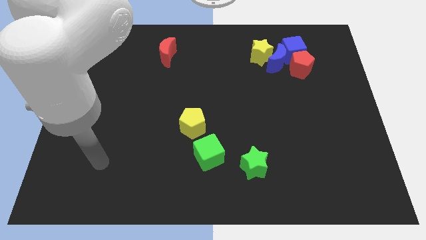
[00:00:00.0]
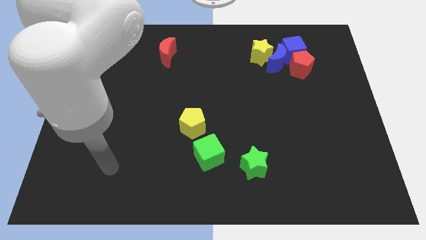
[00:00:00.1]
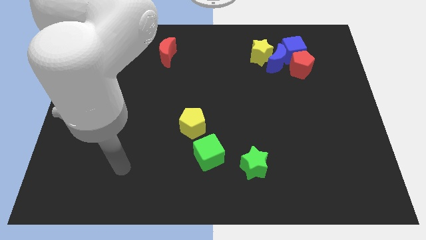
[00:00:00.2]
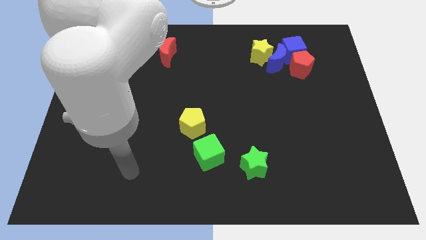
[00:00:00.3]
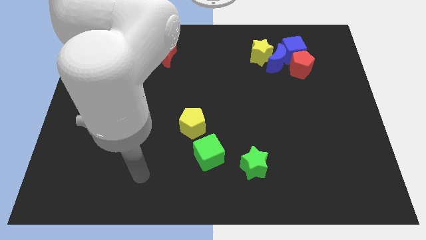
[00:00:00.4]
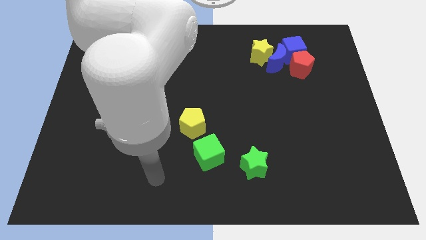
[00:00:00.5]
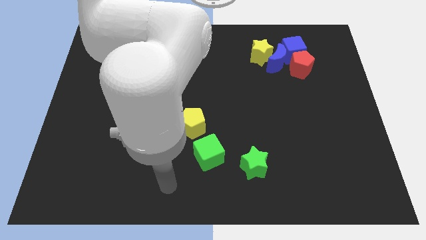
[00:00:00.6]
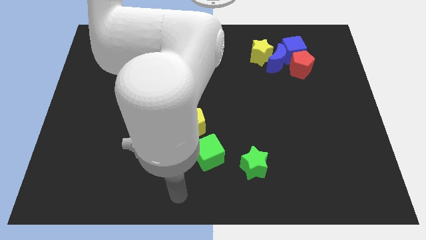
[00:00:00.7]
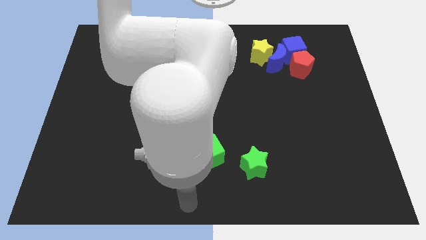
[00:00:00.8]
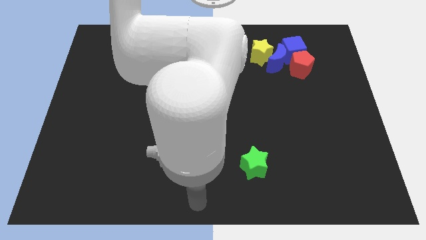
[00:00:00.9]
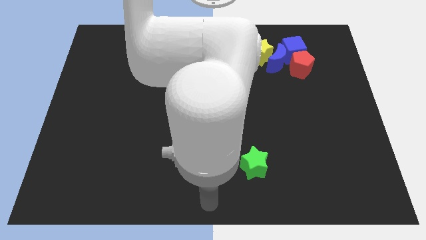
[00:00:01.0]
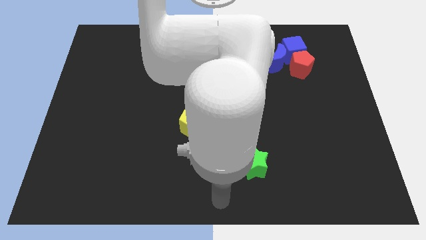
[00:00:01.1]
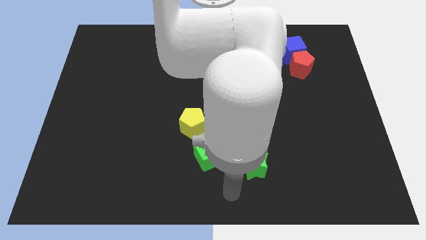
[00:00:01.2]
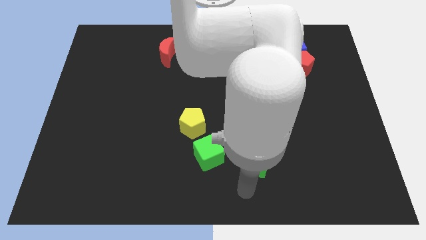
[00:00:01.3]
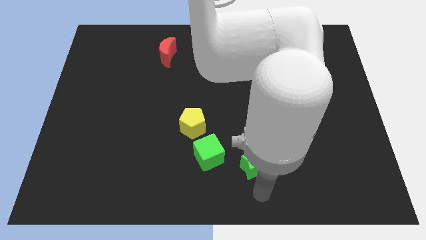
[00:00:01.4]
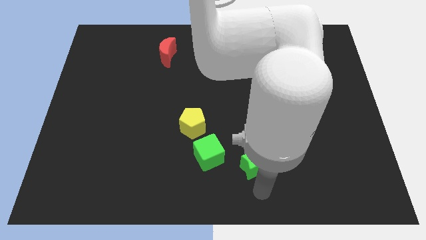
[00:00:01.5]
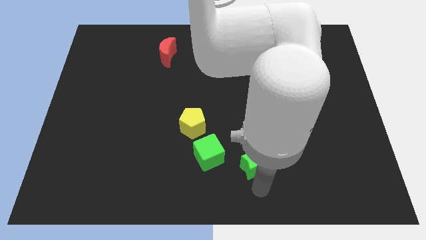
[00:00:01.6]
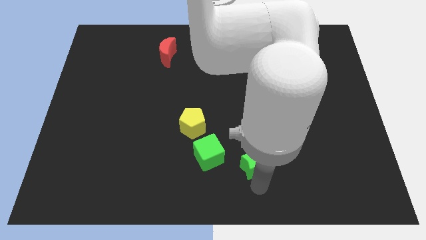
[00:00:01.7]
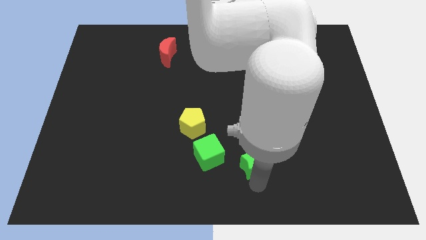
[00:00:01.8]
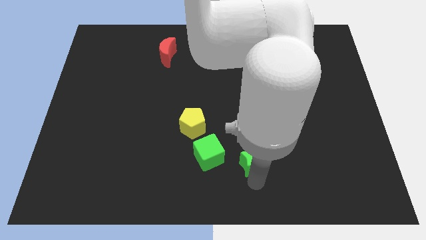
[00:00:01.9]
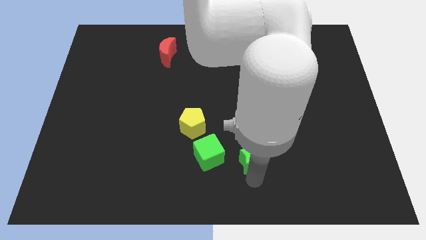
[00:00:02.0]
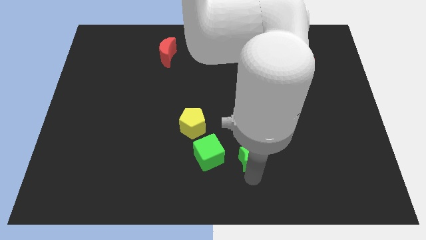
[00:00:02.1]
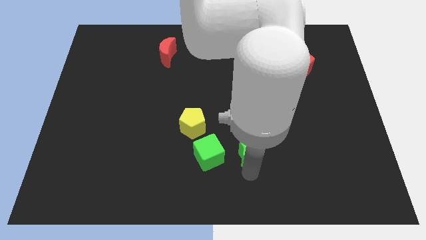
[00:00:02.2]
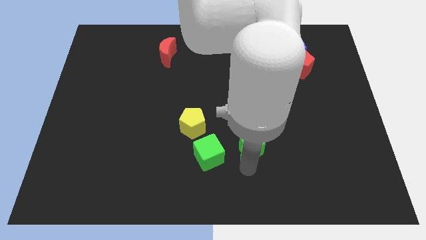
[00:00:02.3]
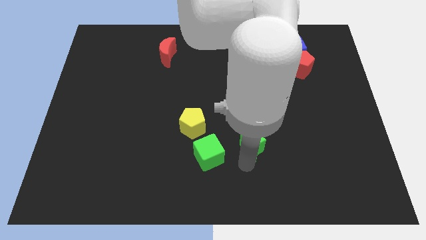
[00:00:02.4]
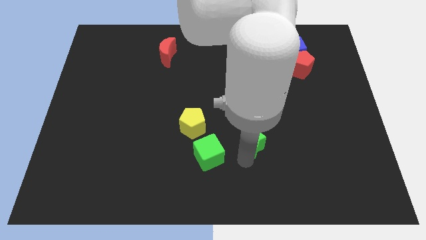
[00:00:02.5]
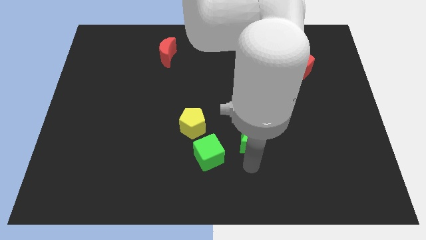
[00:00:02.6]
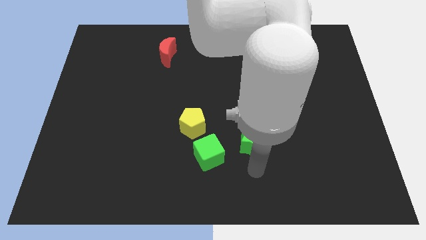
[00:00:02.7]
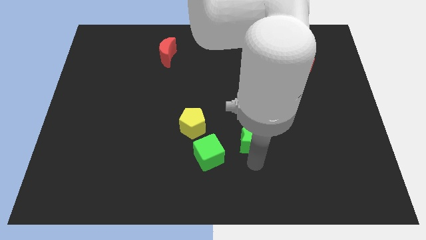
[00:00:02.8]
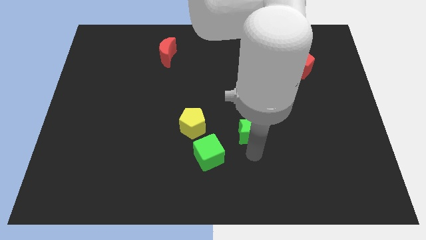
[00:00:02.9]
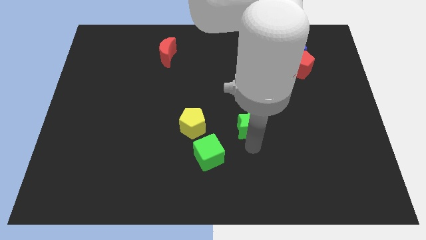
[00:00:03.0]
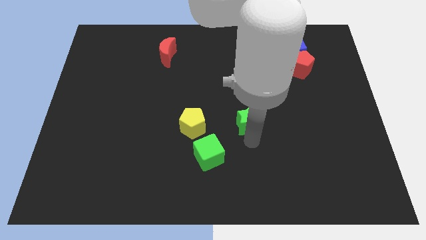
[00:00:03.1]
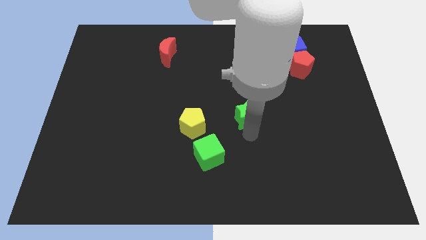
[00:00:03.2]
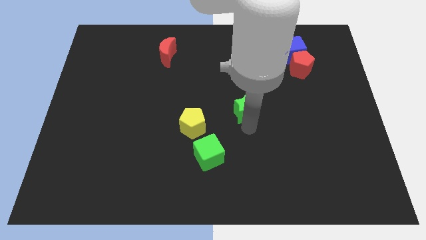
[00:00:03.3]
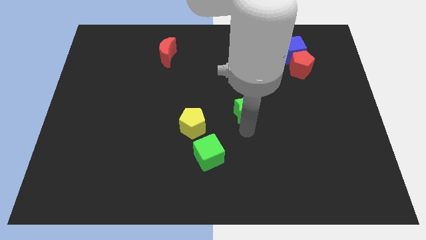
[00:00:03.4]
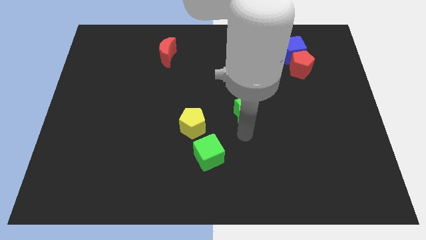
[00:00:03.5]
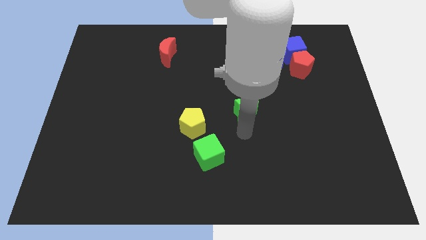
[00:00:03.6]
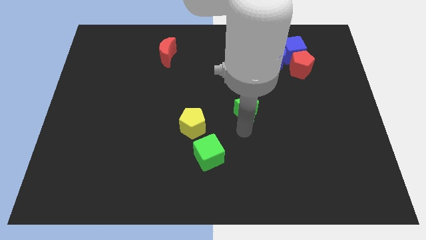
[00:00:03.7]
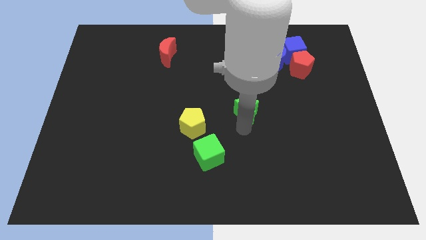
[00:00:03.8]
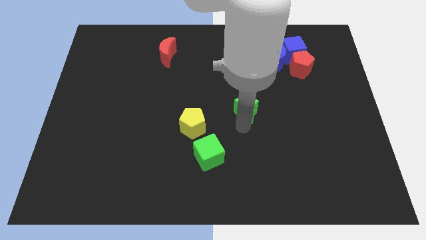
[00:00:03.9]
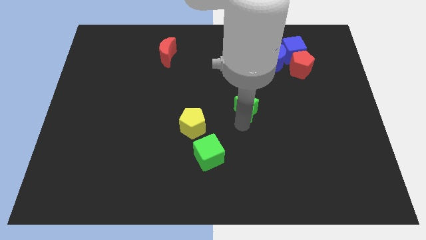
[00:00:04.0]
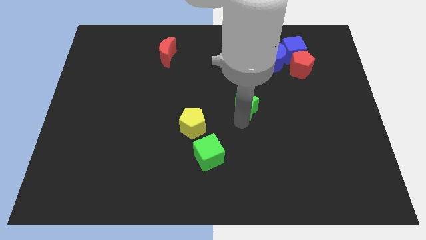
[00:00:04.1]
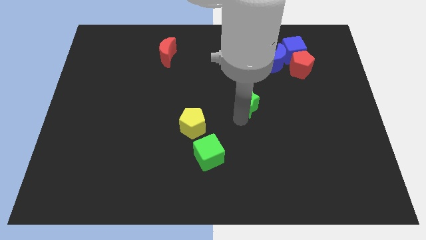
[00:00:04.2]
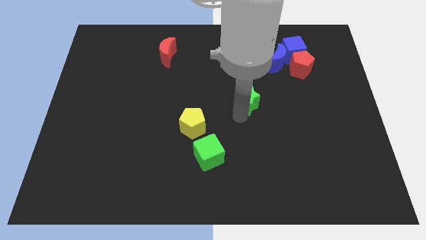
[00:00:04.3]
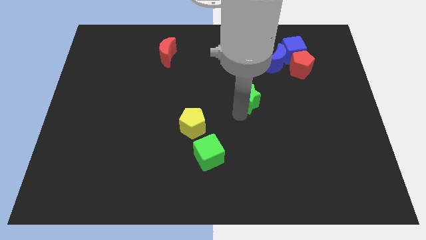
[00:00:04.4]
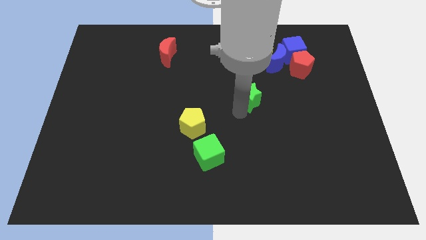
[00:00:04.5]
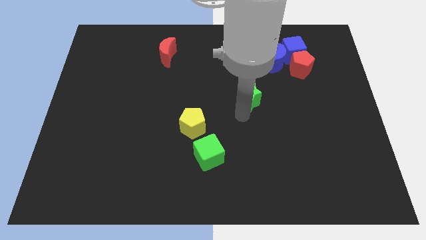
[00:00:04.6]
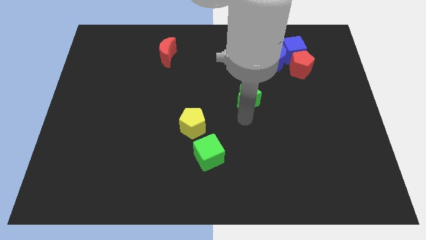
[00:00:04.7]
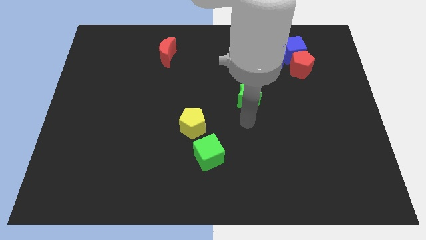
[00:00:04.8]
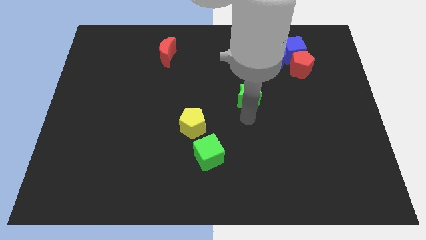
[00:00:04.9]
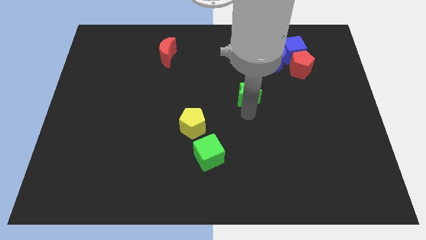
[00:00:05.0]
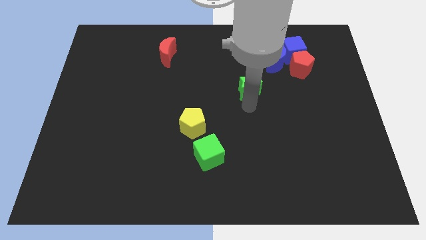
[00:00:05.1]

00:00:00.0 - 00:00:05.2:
slide the green star up

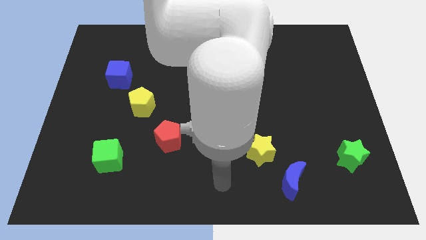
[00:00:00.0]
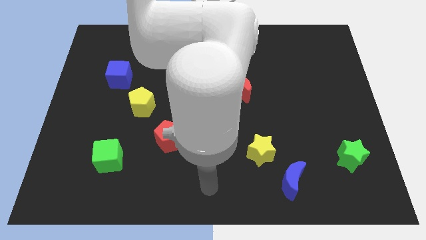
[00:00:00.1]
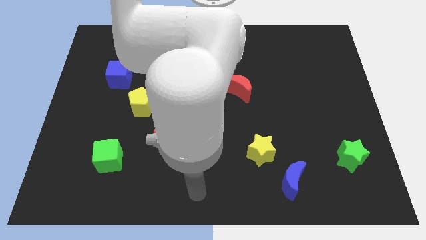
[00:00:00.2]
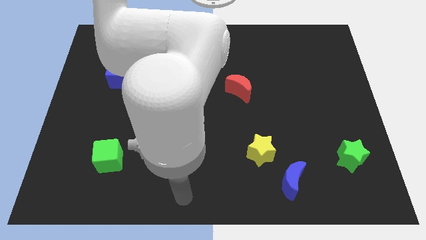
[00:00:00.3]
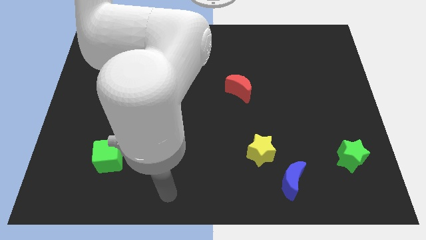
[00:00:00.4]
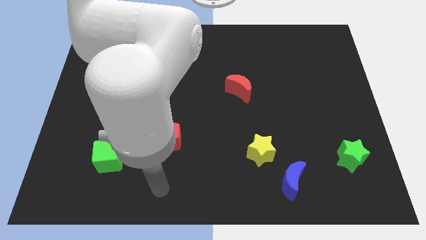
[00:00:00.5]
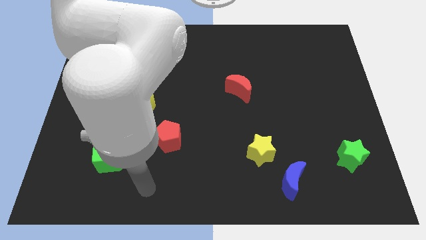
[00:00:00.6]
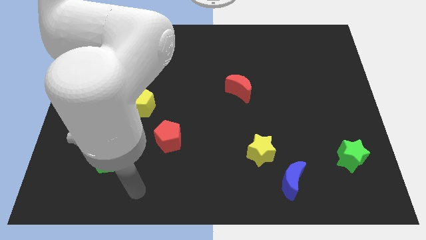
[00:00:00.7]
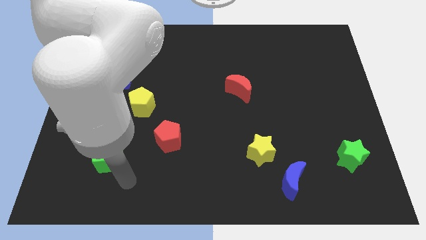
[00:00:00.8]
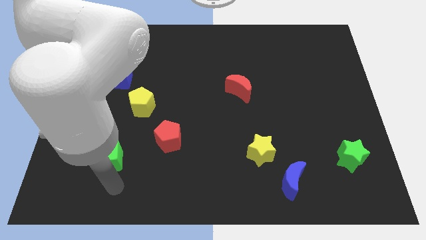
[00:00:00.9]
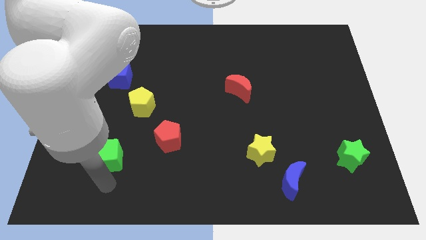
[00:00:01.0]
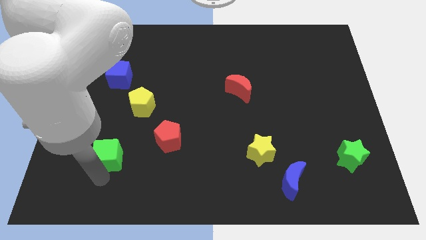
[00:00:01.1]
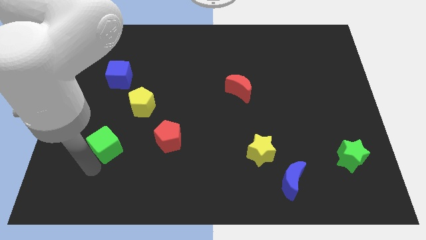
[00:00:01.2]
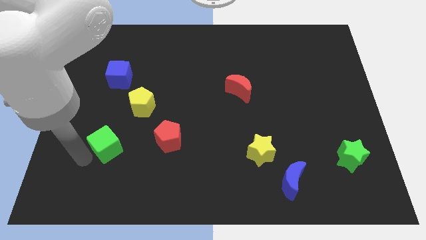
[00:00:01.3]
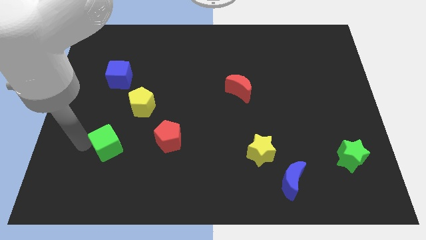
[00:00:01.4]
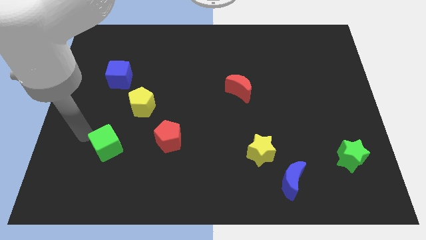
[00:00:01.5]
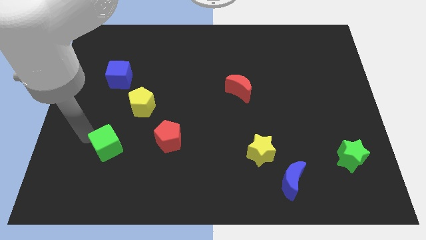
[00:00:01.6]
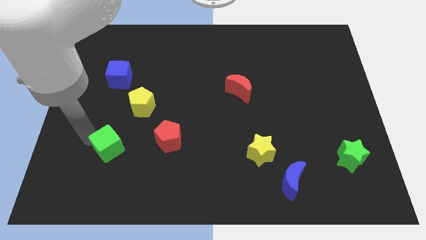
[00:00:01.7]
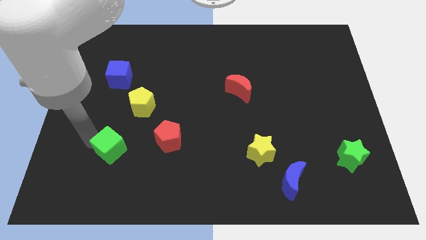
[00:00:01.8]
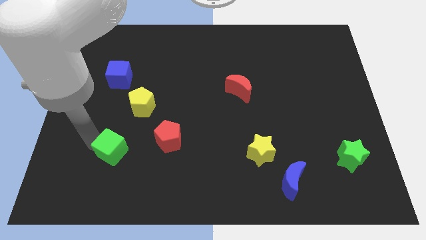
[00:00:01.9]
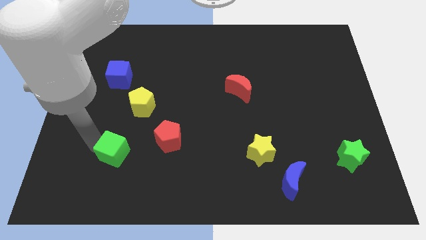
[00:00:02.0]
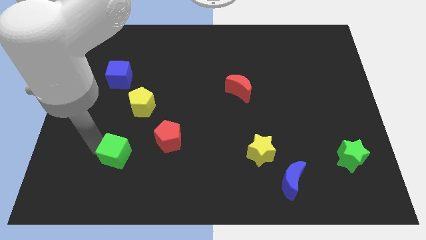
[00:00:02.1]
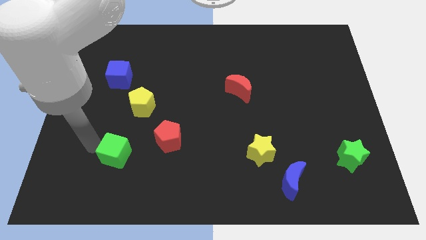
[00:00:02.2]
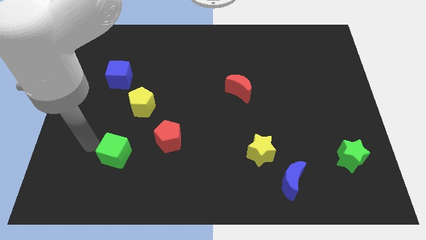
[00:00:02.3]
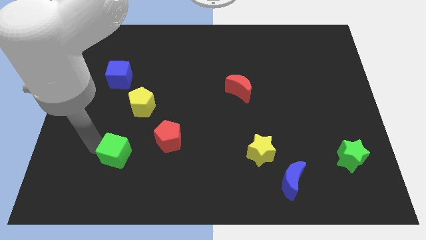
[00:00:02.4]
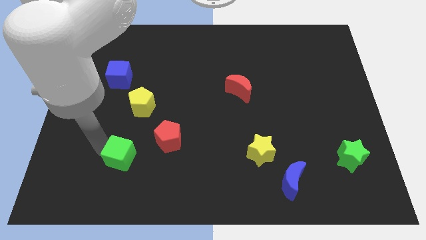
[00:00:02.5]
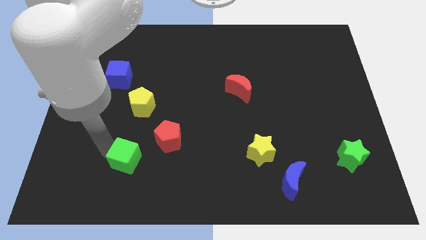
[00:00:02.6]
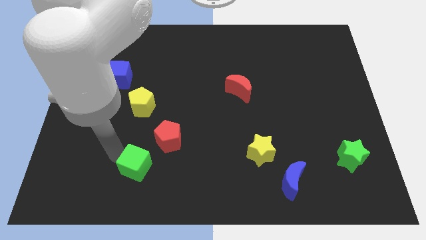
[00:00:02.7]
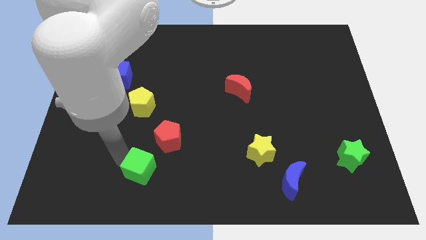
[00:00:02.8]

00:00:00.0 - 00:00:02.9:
move the green cube a little bit to the right
